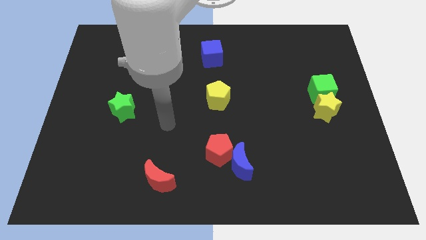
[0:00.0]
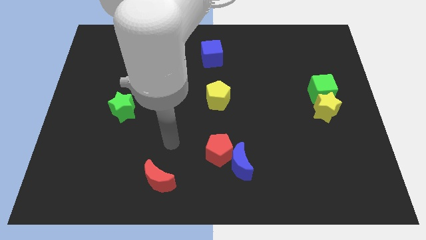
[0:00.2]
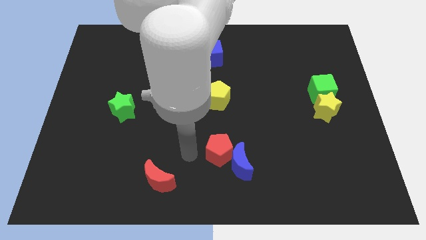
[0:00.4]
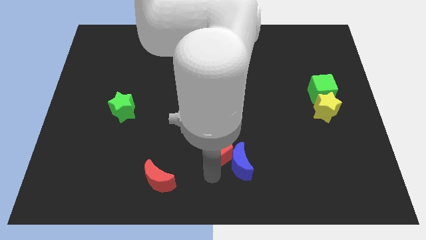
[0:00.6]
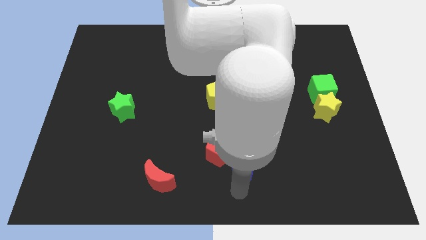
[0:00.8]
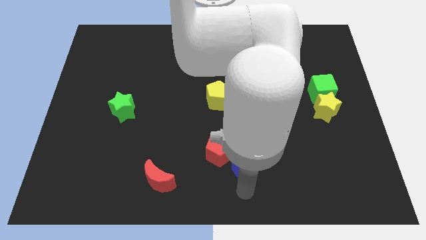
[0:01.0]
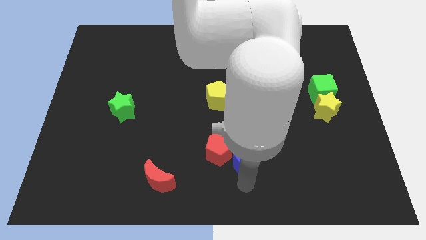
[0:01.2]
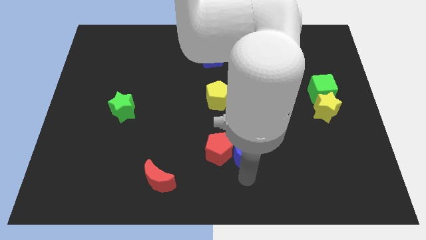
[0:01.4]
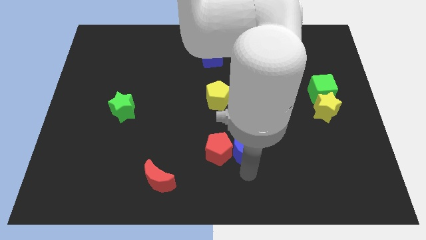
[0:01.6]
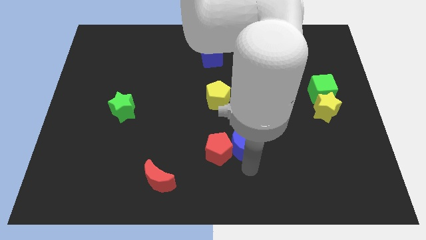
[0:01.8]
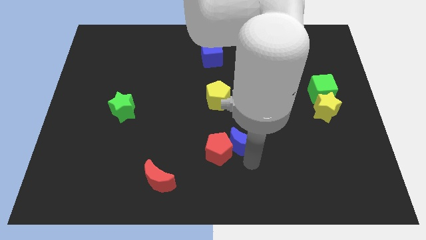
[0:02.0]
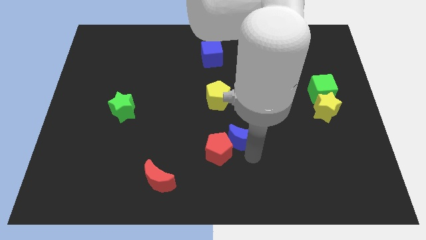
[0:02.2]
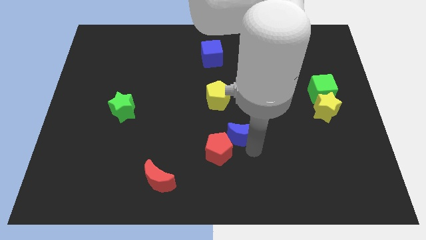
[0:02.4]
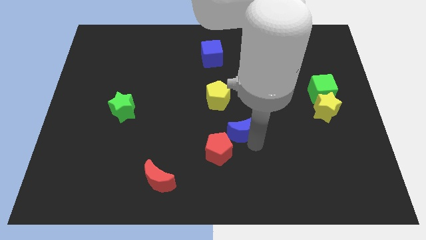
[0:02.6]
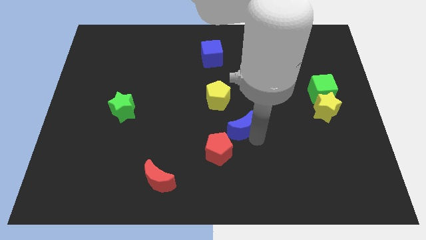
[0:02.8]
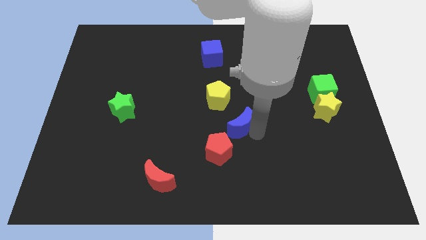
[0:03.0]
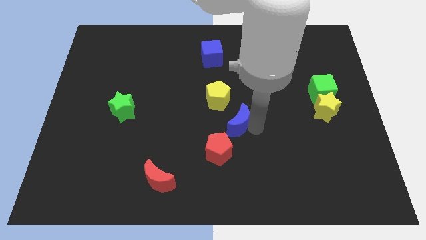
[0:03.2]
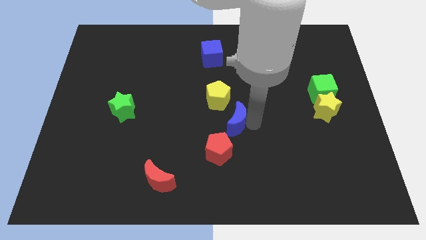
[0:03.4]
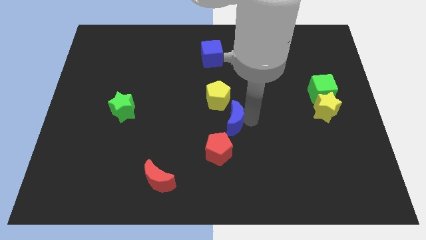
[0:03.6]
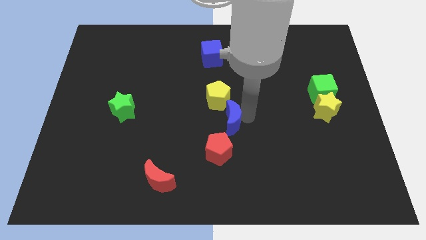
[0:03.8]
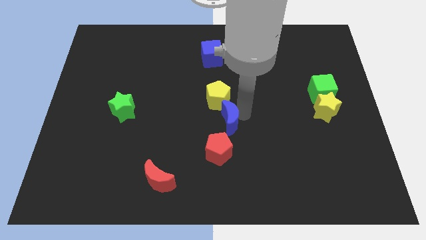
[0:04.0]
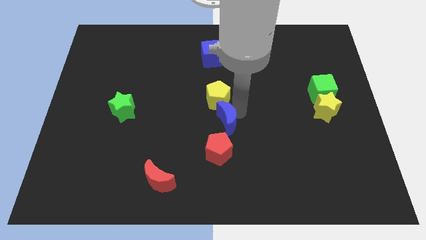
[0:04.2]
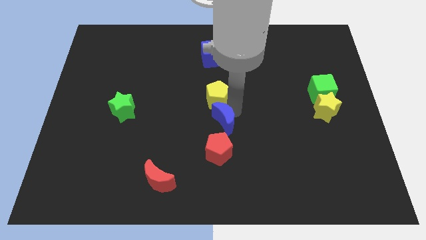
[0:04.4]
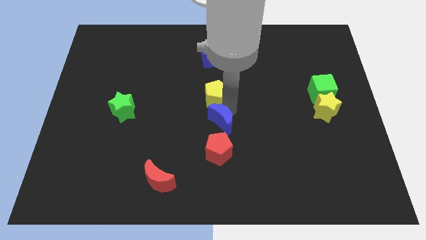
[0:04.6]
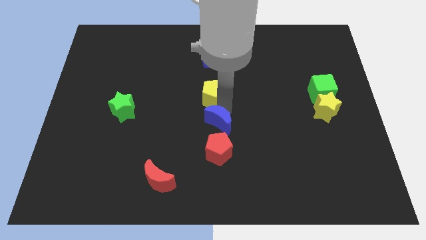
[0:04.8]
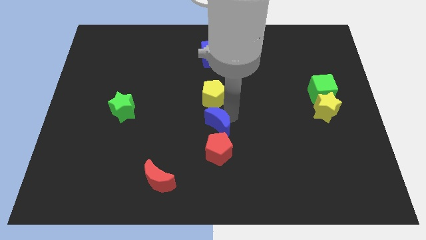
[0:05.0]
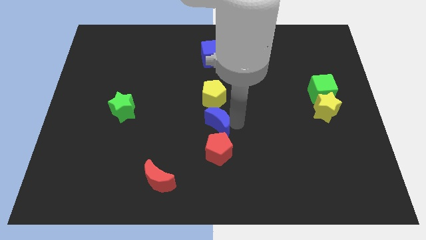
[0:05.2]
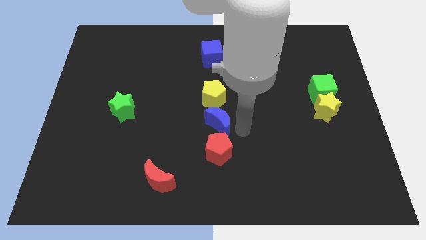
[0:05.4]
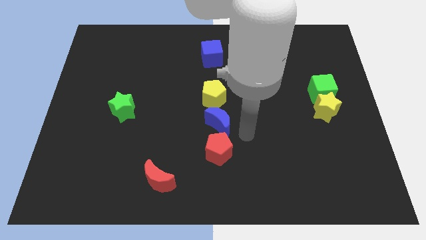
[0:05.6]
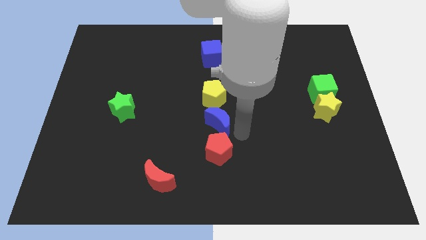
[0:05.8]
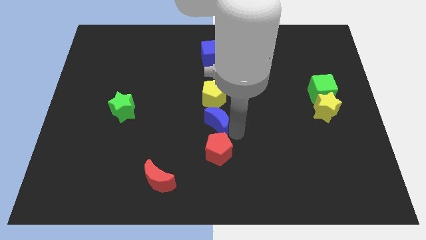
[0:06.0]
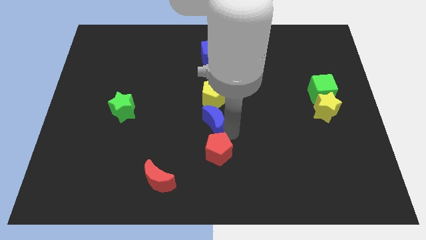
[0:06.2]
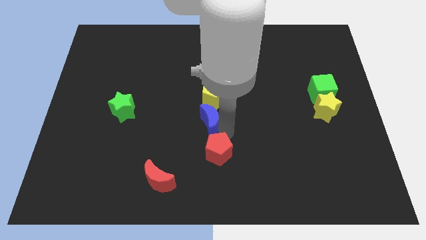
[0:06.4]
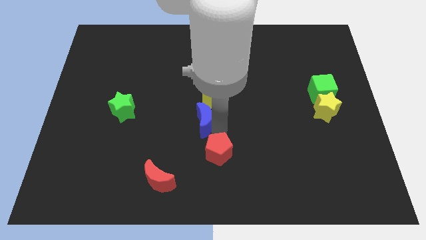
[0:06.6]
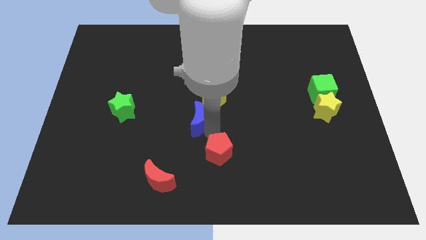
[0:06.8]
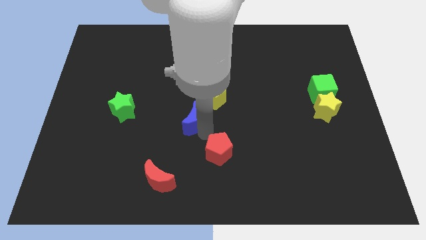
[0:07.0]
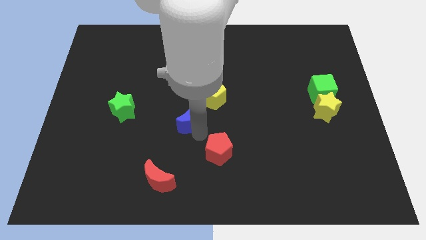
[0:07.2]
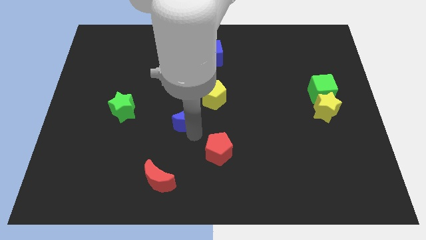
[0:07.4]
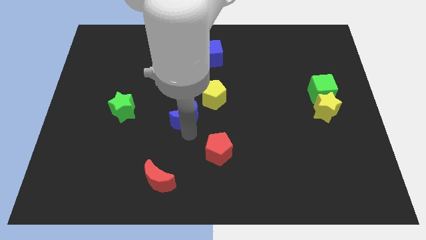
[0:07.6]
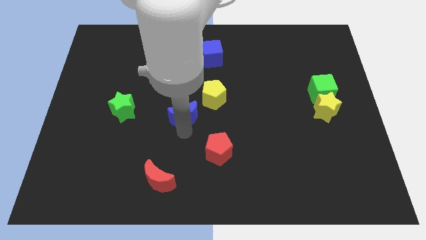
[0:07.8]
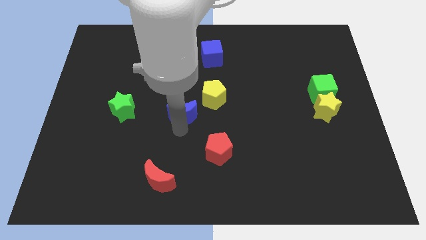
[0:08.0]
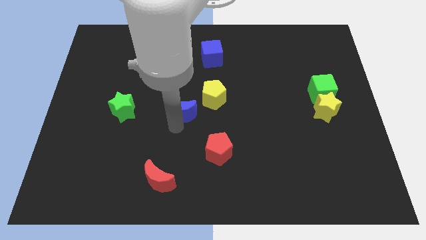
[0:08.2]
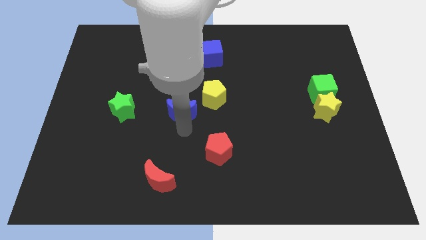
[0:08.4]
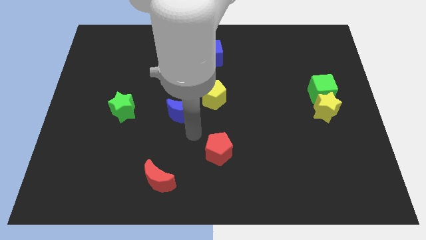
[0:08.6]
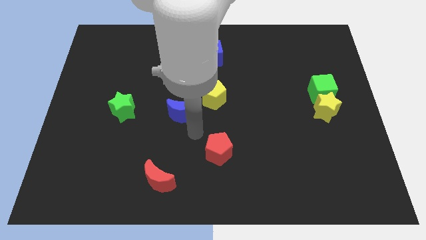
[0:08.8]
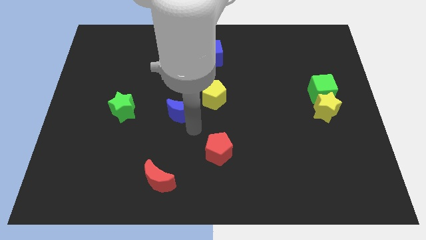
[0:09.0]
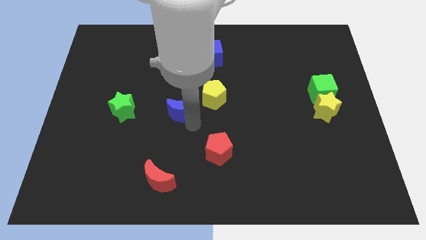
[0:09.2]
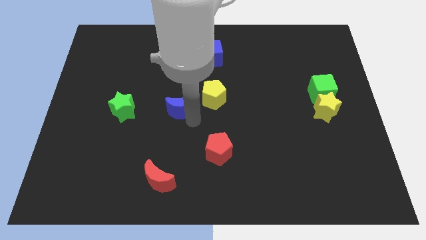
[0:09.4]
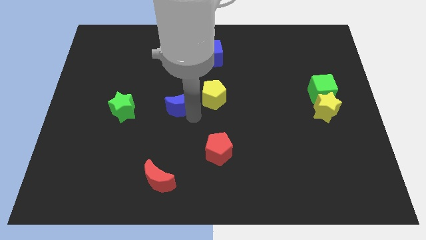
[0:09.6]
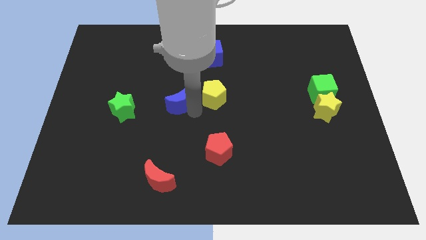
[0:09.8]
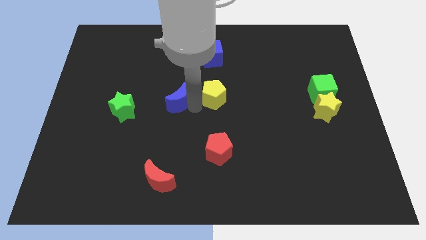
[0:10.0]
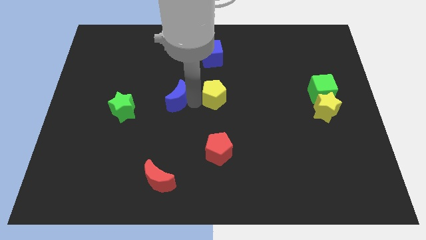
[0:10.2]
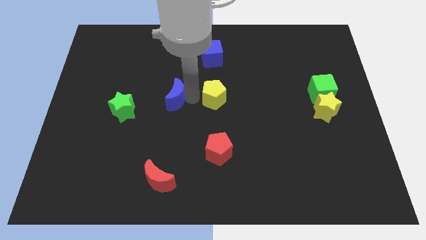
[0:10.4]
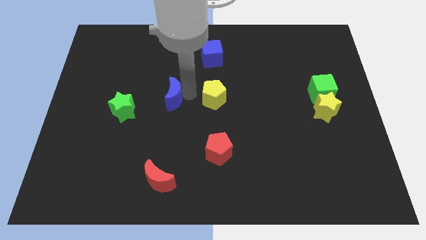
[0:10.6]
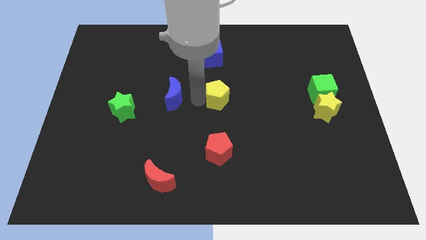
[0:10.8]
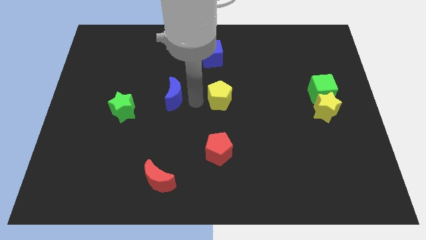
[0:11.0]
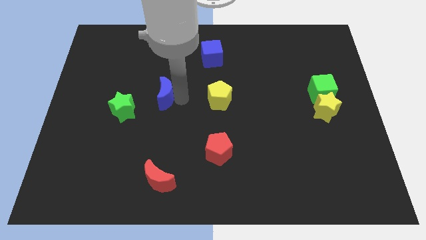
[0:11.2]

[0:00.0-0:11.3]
put the blue moon to the top right of the green star

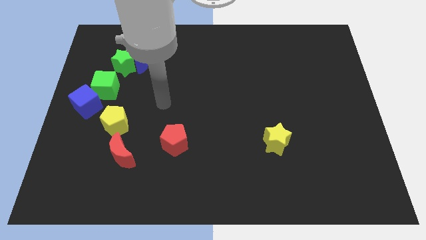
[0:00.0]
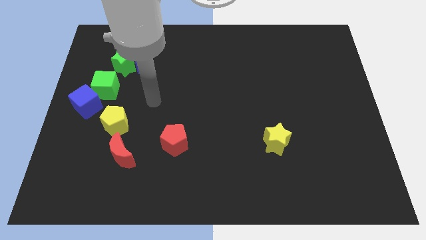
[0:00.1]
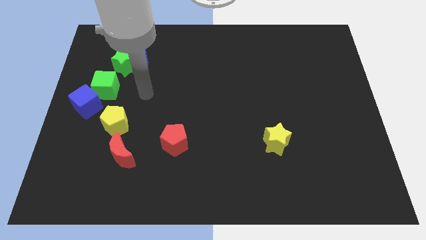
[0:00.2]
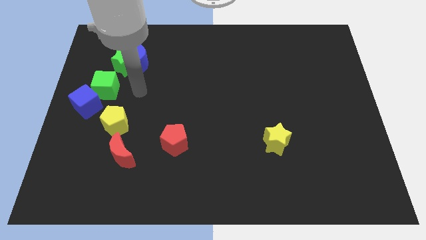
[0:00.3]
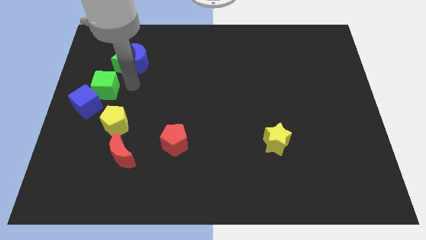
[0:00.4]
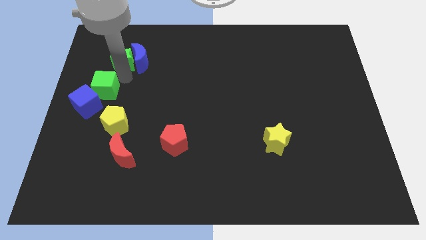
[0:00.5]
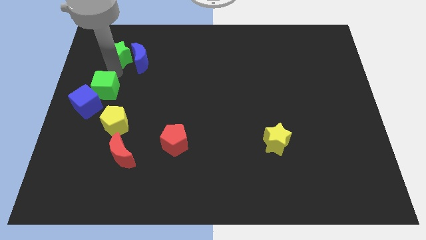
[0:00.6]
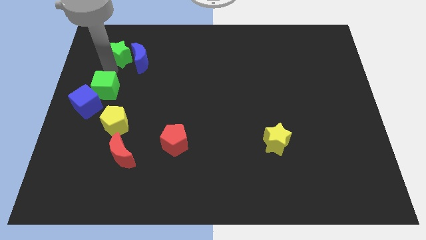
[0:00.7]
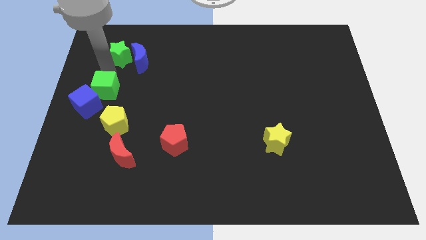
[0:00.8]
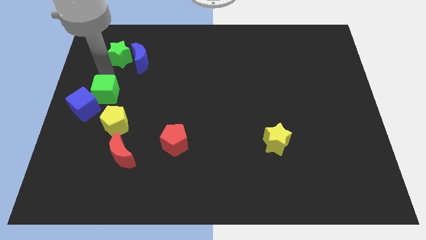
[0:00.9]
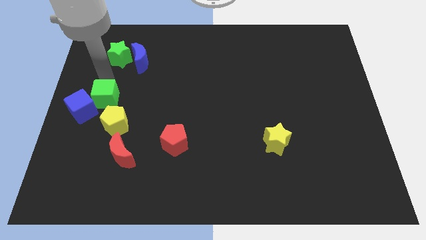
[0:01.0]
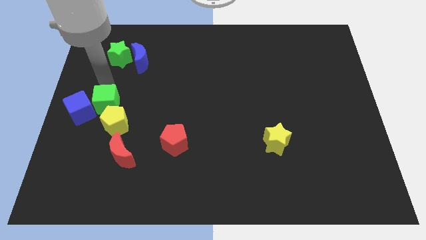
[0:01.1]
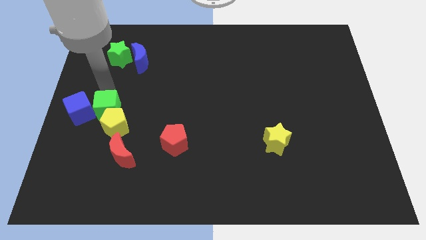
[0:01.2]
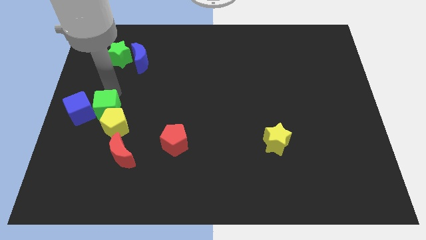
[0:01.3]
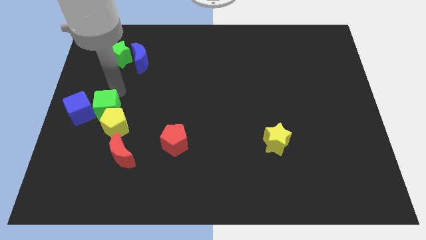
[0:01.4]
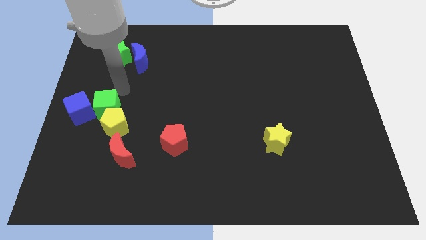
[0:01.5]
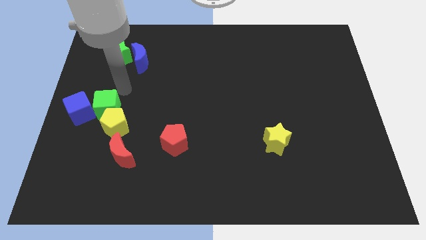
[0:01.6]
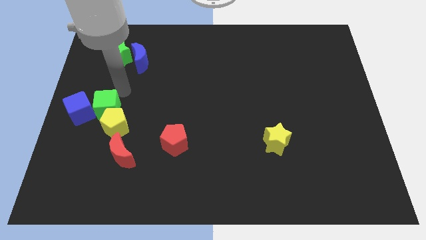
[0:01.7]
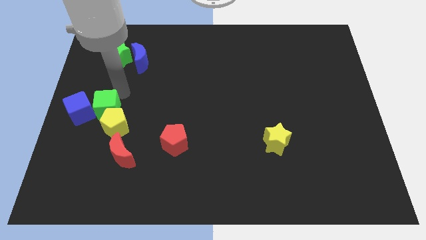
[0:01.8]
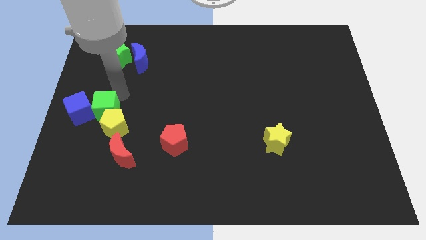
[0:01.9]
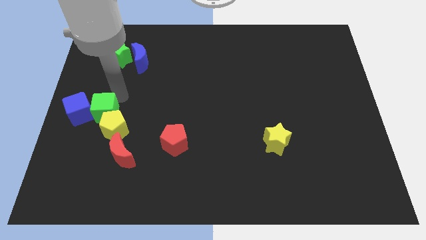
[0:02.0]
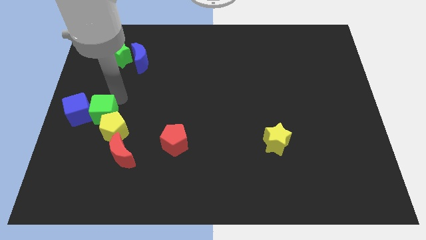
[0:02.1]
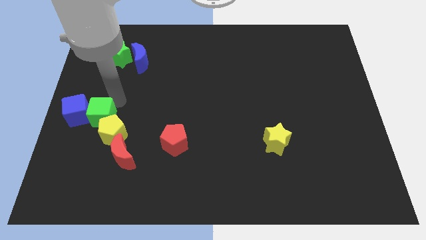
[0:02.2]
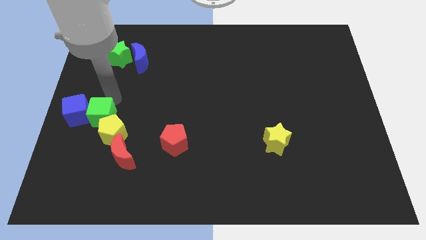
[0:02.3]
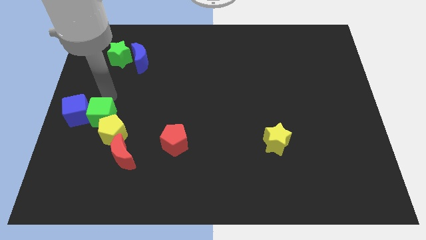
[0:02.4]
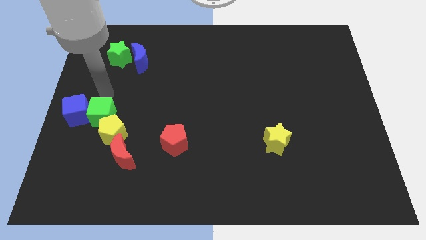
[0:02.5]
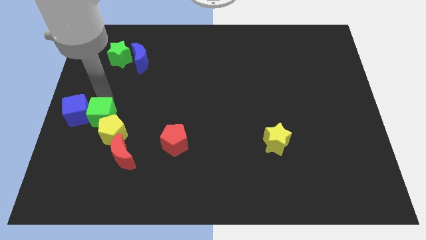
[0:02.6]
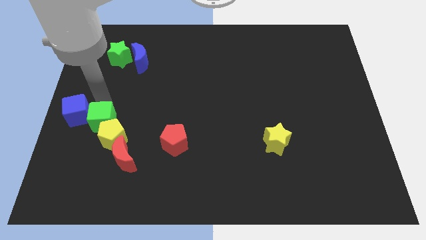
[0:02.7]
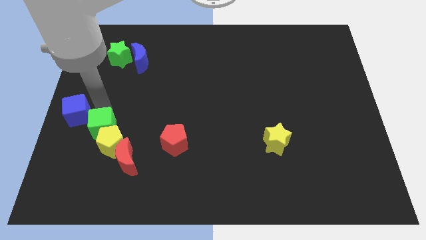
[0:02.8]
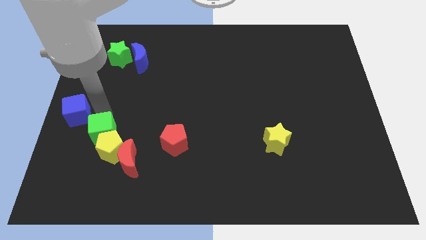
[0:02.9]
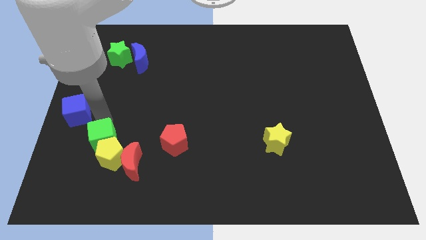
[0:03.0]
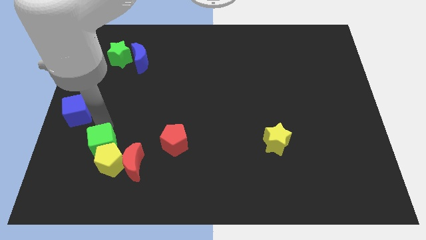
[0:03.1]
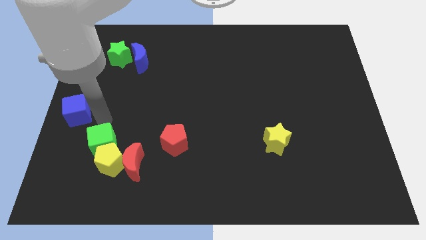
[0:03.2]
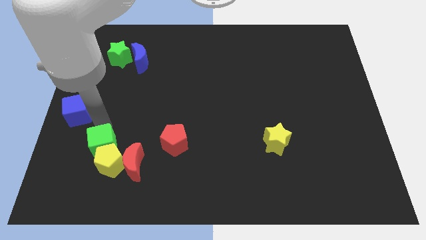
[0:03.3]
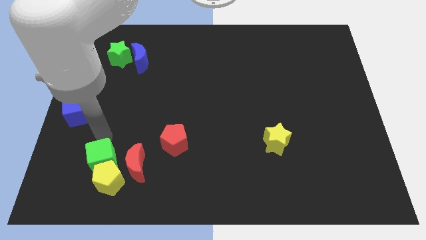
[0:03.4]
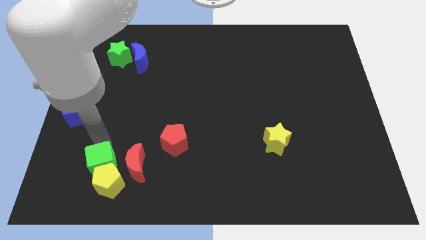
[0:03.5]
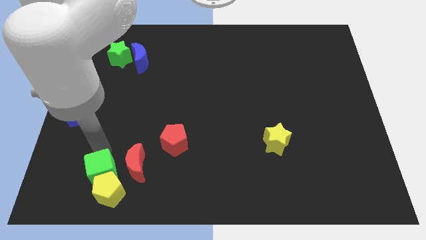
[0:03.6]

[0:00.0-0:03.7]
slide the green cube to the bottom left side of the red moon
